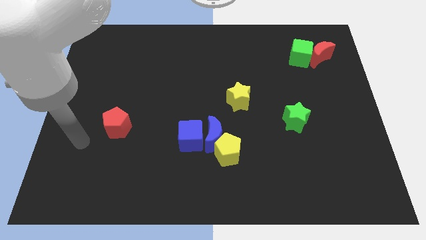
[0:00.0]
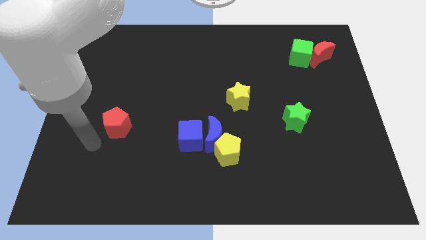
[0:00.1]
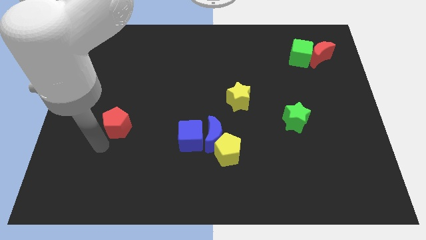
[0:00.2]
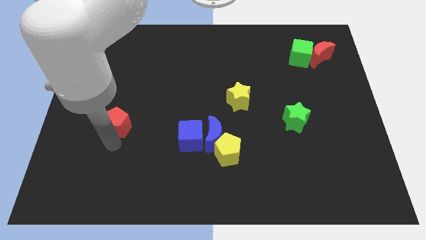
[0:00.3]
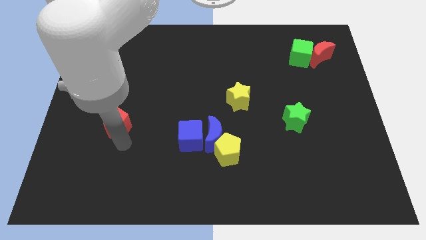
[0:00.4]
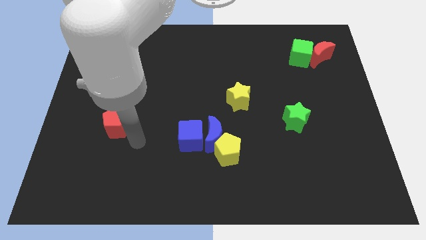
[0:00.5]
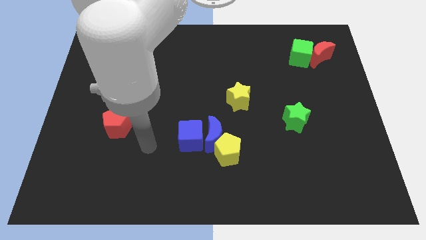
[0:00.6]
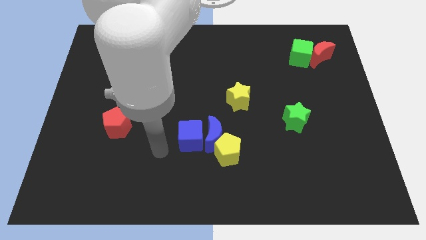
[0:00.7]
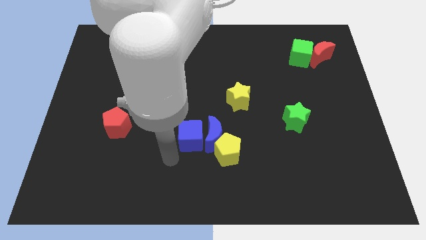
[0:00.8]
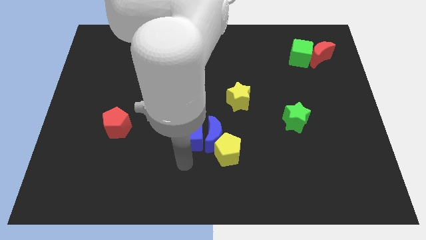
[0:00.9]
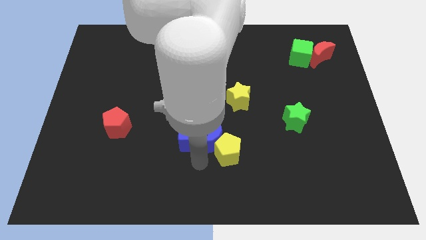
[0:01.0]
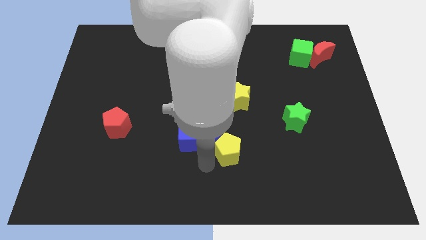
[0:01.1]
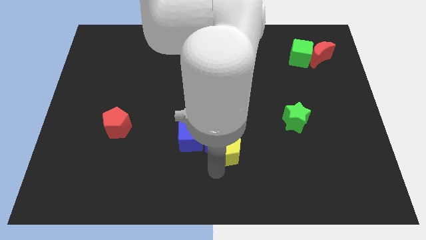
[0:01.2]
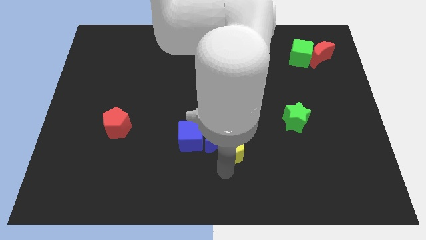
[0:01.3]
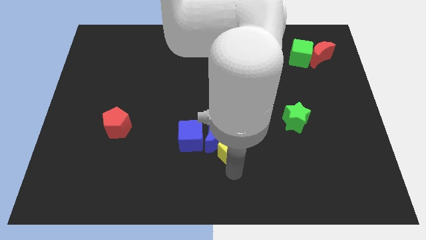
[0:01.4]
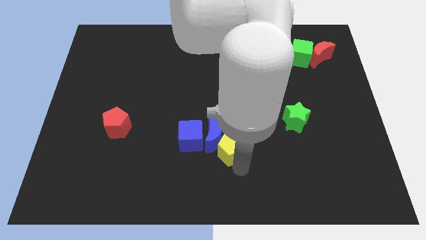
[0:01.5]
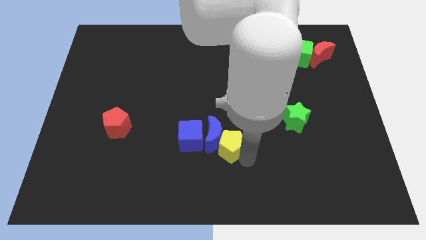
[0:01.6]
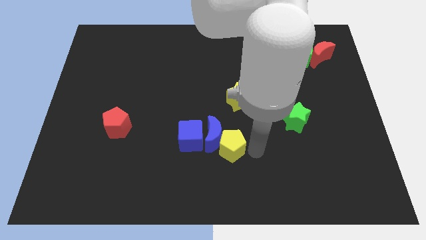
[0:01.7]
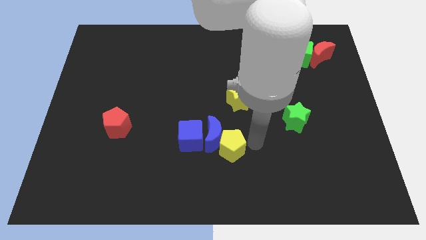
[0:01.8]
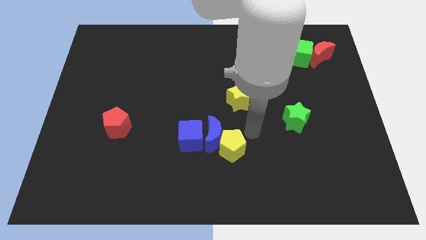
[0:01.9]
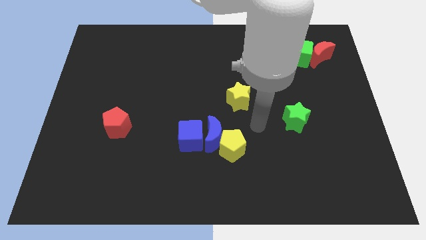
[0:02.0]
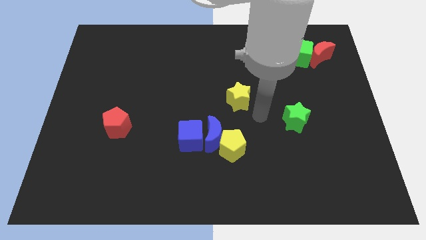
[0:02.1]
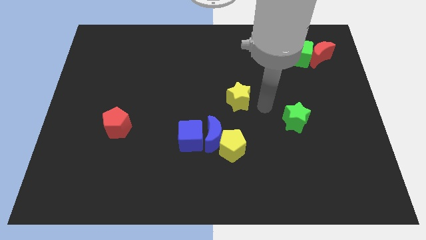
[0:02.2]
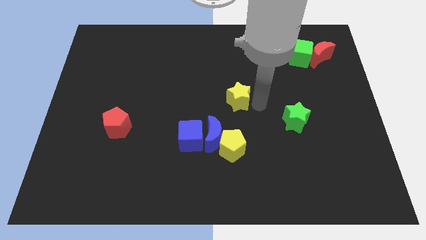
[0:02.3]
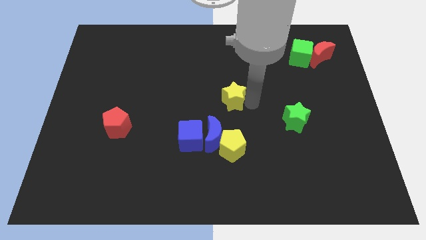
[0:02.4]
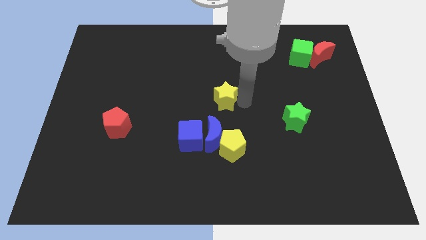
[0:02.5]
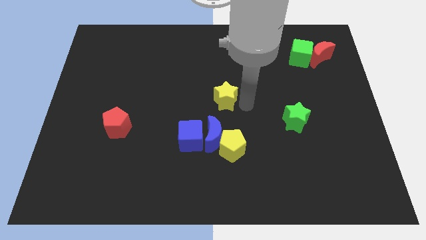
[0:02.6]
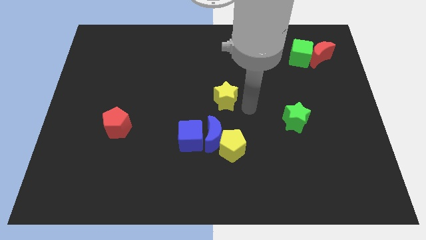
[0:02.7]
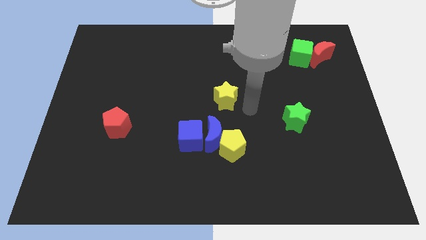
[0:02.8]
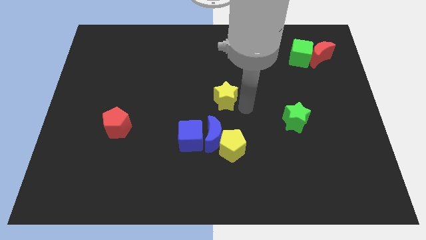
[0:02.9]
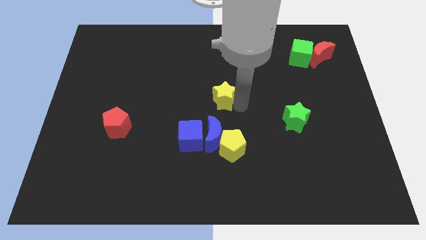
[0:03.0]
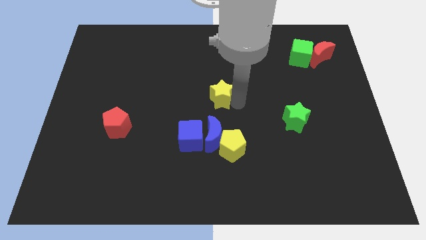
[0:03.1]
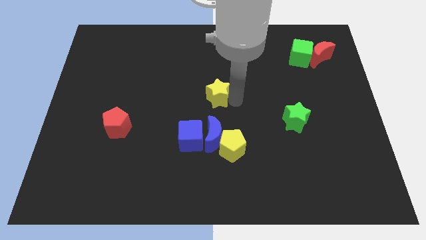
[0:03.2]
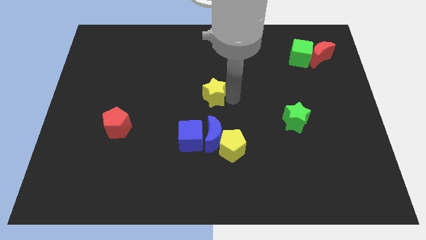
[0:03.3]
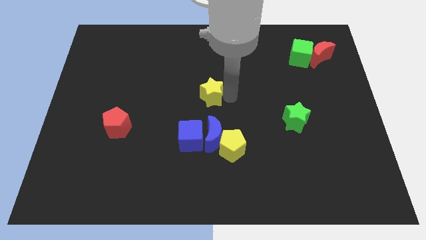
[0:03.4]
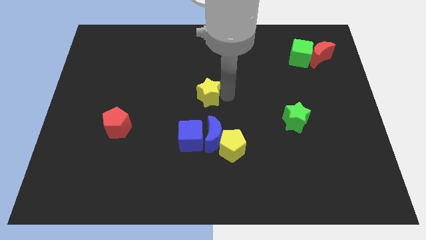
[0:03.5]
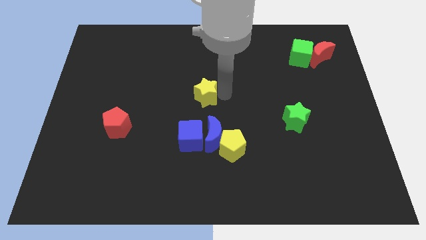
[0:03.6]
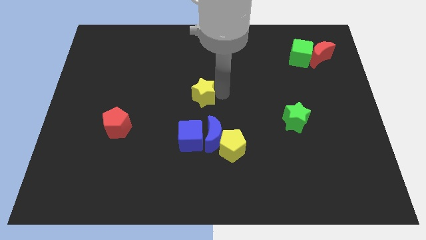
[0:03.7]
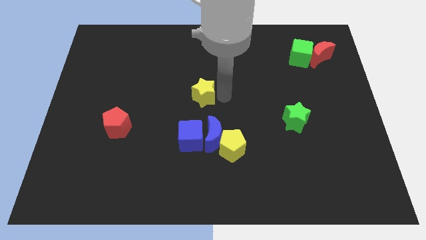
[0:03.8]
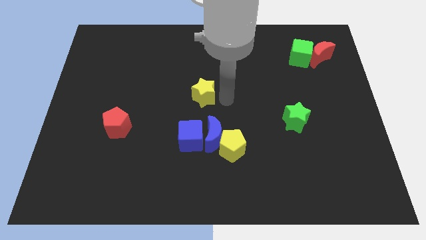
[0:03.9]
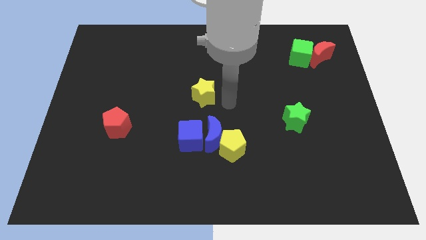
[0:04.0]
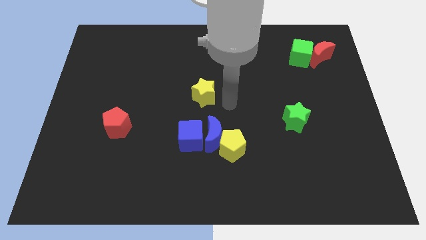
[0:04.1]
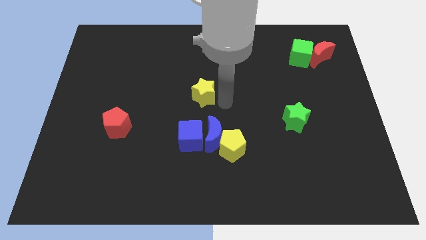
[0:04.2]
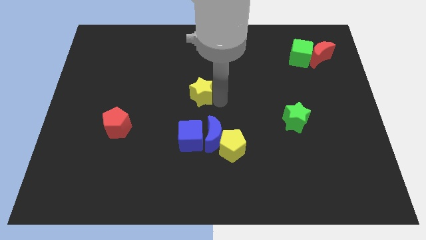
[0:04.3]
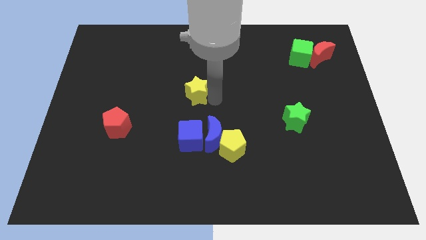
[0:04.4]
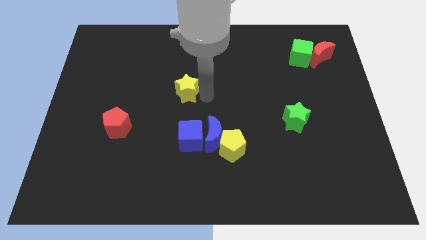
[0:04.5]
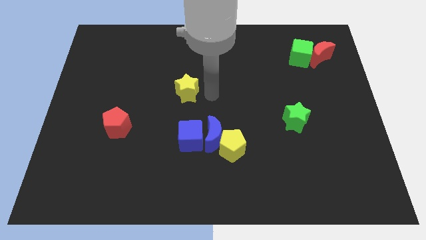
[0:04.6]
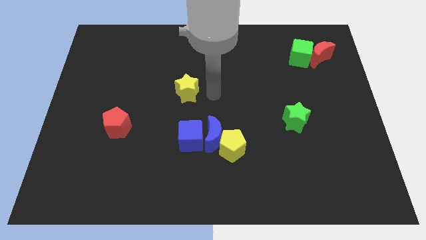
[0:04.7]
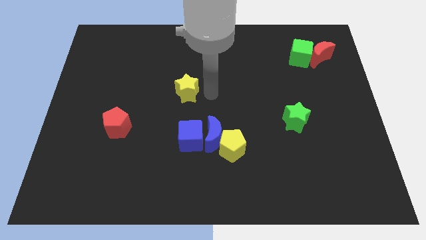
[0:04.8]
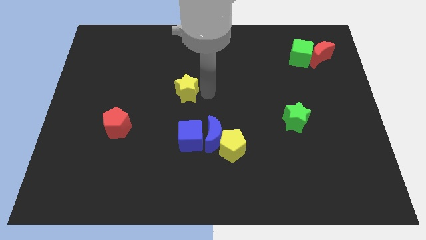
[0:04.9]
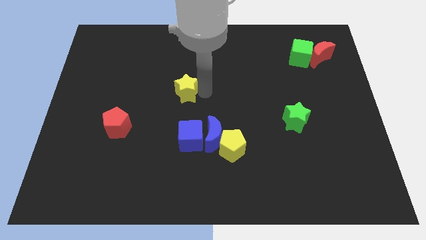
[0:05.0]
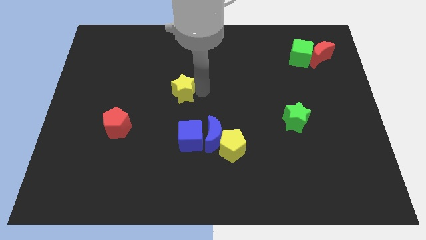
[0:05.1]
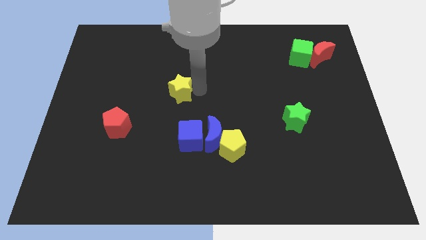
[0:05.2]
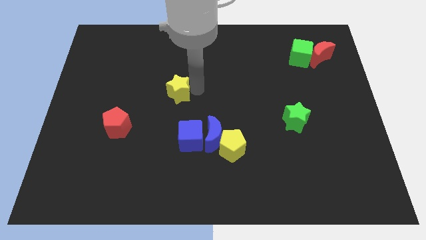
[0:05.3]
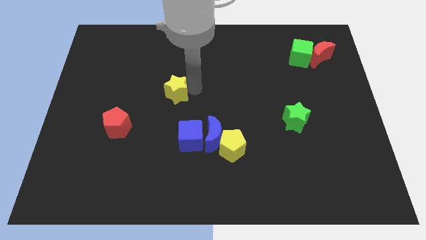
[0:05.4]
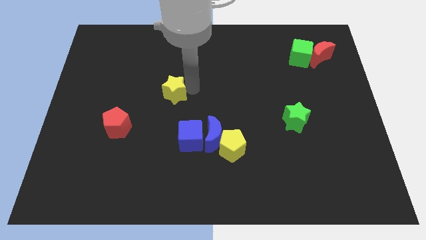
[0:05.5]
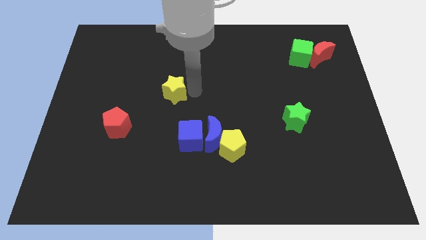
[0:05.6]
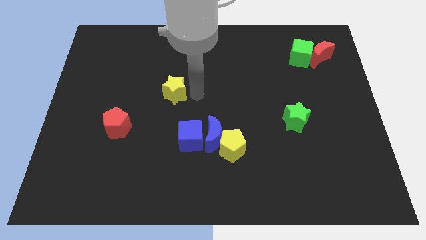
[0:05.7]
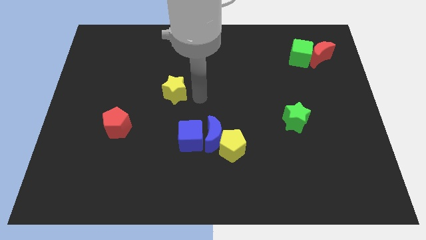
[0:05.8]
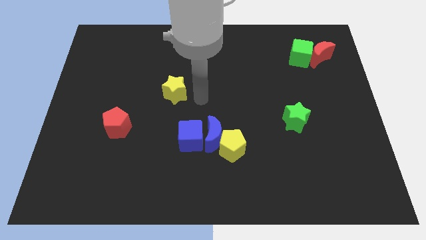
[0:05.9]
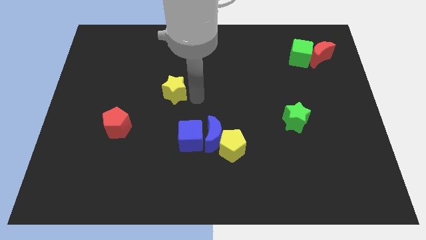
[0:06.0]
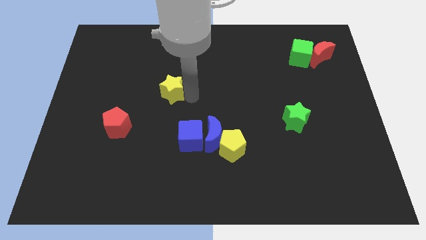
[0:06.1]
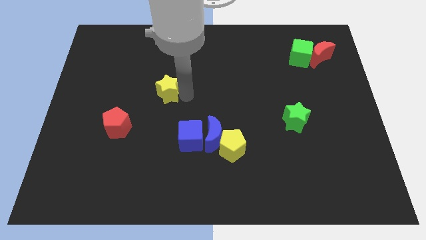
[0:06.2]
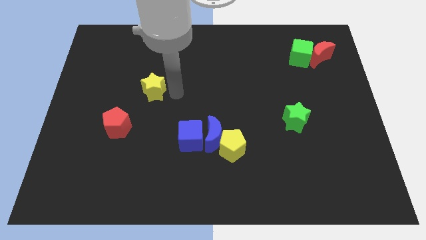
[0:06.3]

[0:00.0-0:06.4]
push the yellow star to the left

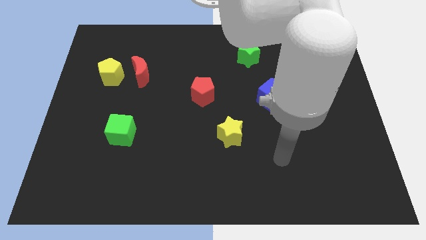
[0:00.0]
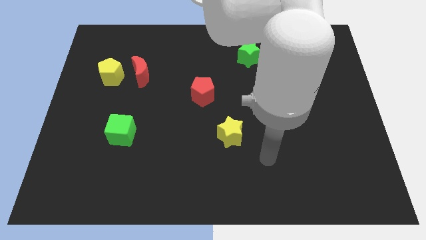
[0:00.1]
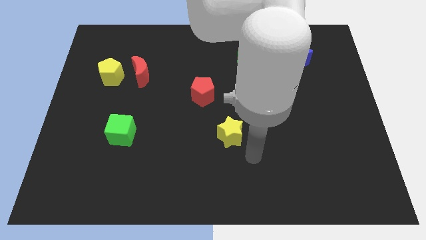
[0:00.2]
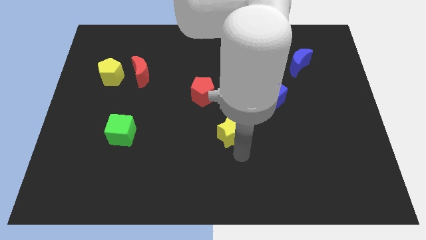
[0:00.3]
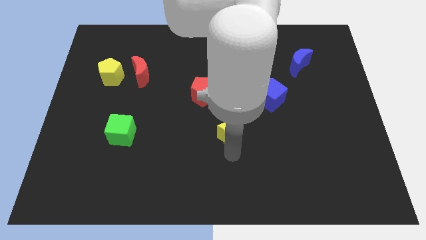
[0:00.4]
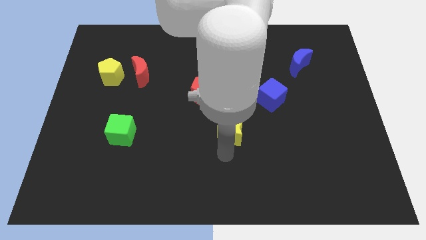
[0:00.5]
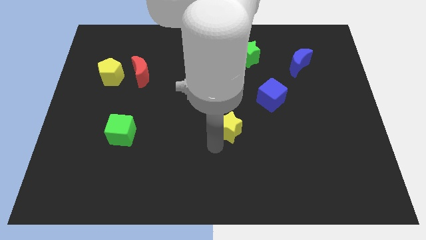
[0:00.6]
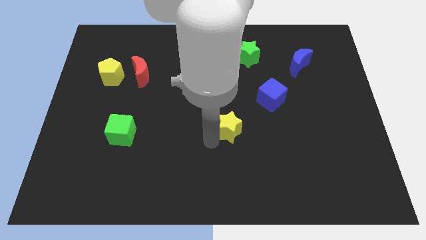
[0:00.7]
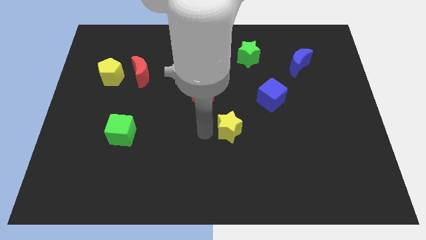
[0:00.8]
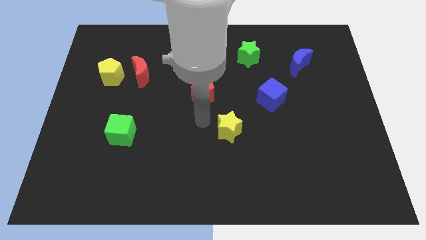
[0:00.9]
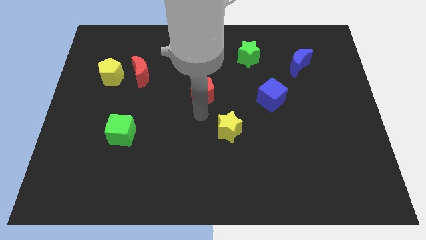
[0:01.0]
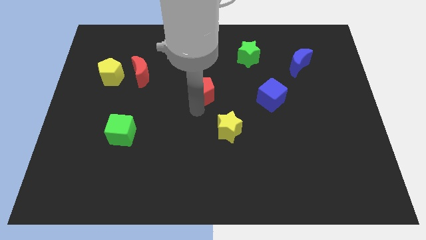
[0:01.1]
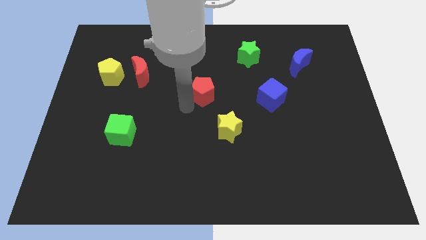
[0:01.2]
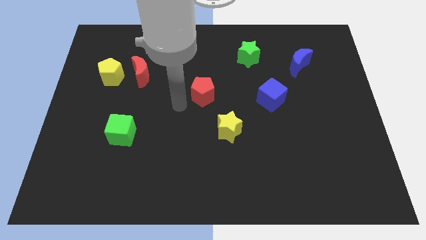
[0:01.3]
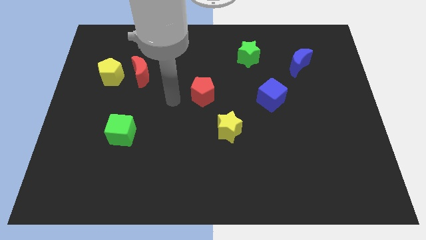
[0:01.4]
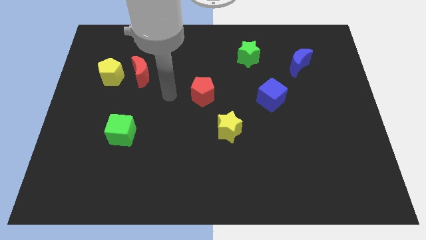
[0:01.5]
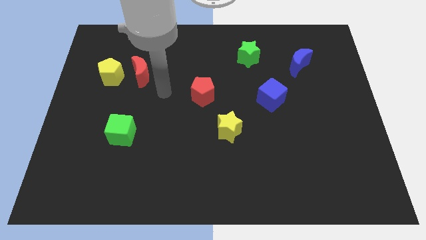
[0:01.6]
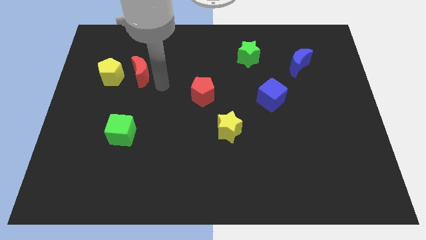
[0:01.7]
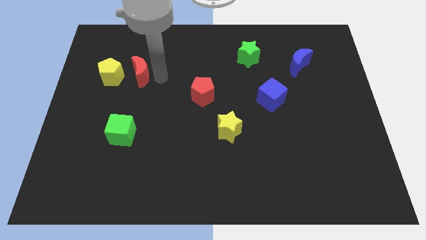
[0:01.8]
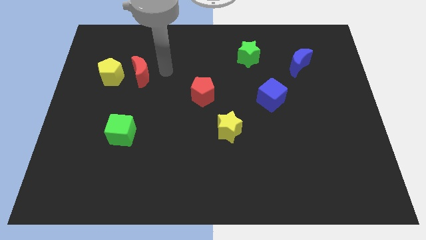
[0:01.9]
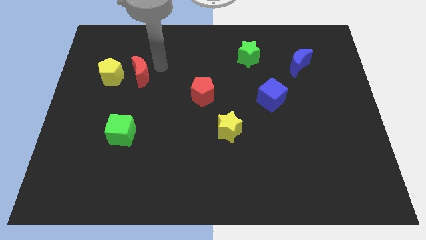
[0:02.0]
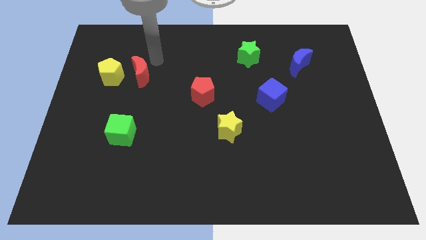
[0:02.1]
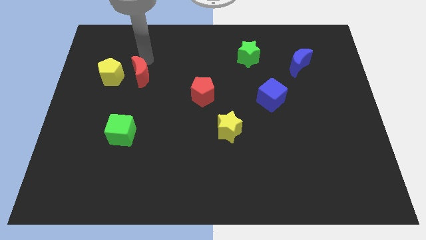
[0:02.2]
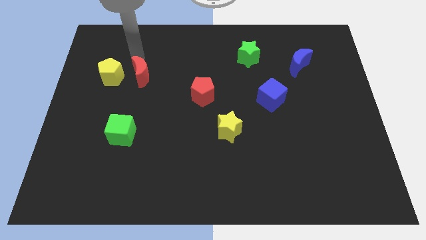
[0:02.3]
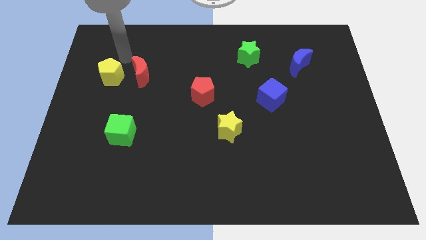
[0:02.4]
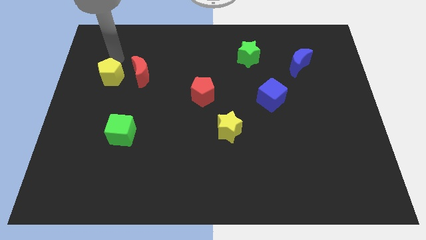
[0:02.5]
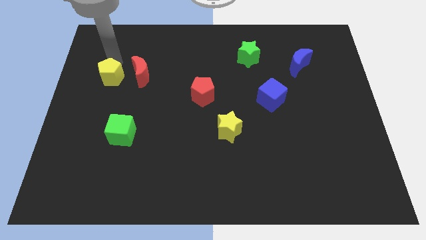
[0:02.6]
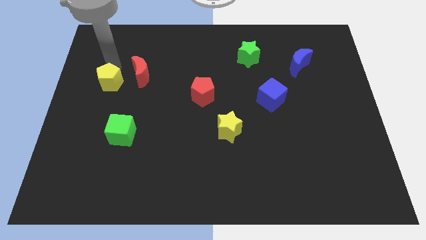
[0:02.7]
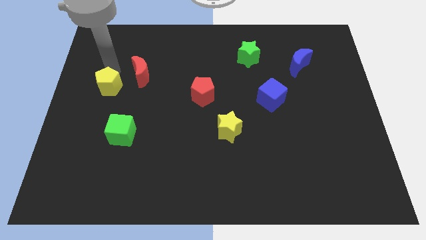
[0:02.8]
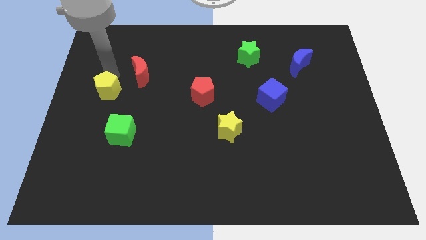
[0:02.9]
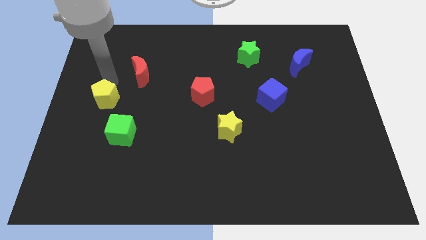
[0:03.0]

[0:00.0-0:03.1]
slightly push the yellow pentagon downwards
